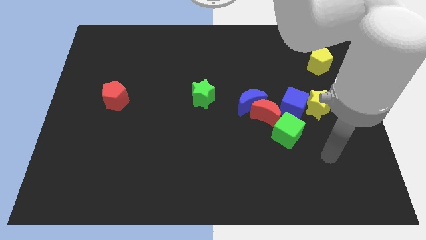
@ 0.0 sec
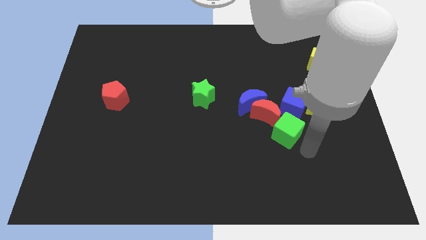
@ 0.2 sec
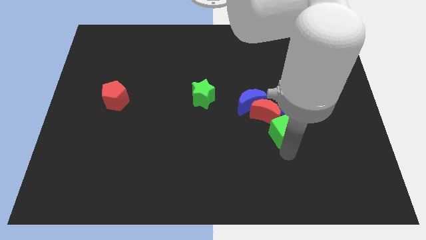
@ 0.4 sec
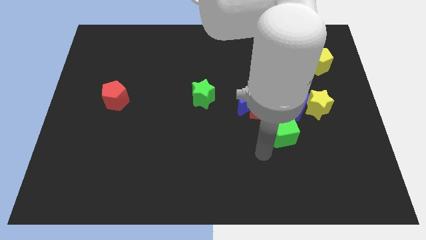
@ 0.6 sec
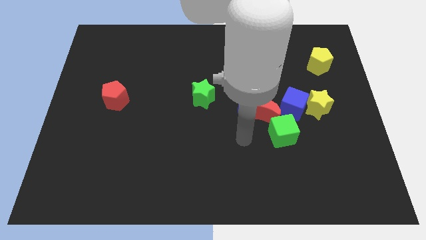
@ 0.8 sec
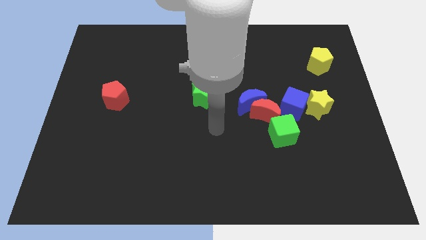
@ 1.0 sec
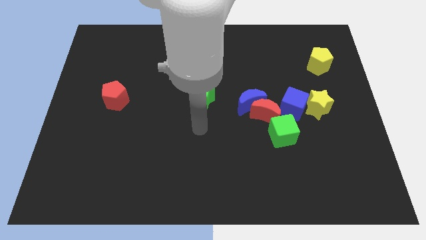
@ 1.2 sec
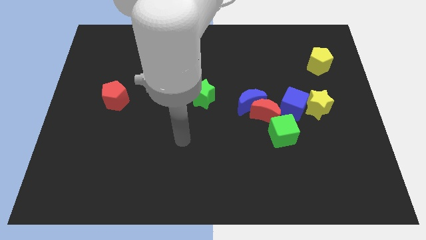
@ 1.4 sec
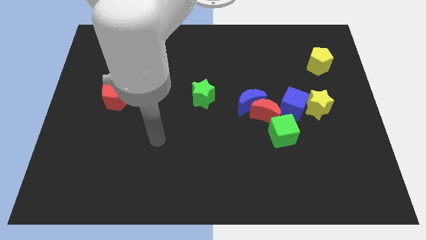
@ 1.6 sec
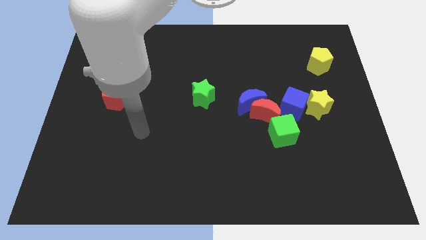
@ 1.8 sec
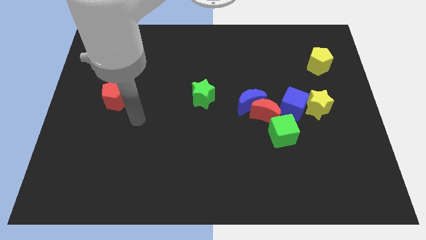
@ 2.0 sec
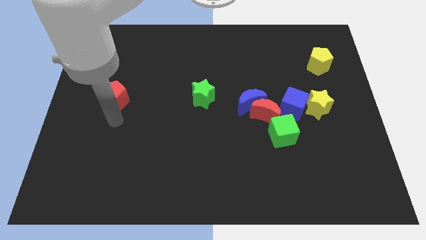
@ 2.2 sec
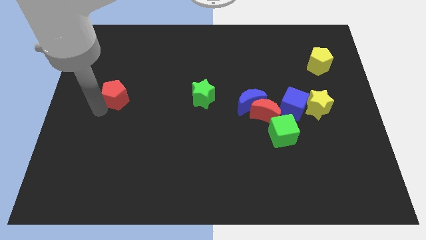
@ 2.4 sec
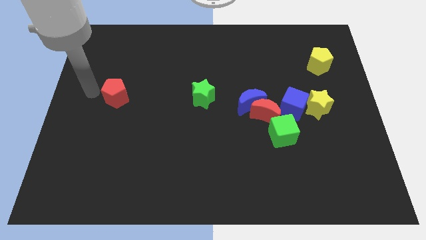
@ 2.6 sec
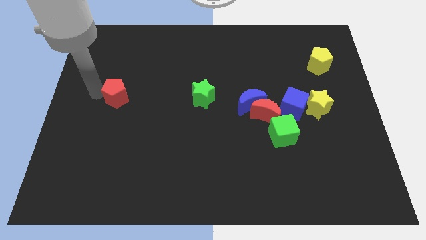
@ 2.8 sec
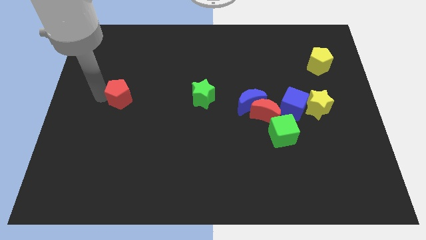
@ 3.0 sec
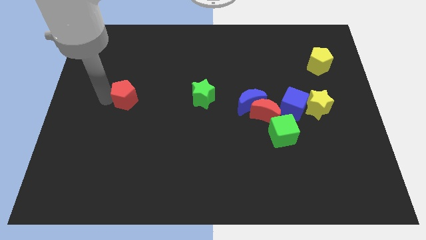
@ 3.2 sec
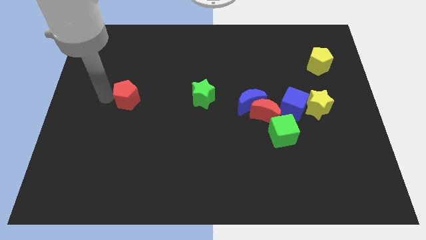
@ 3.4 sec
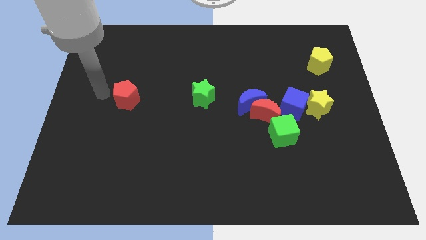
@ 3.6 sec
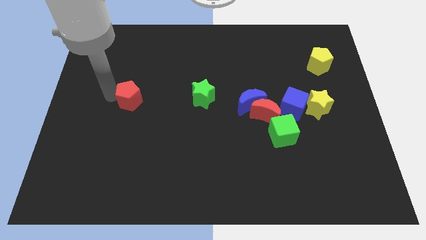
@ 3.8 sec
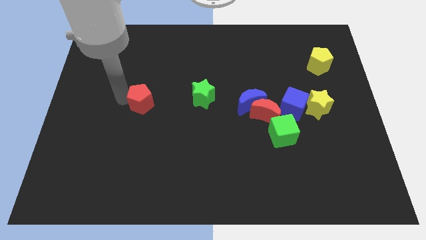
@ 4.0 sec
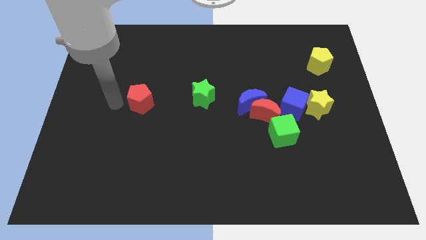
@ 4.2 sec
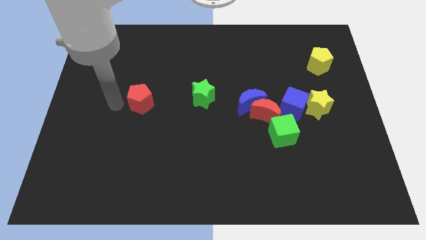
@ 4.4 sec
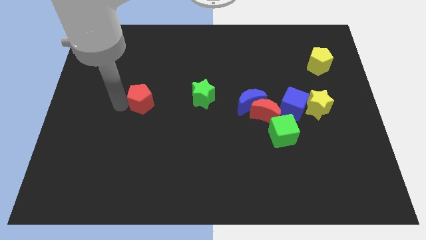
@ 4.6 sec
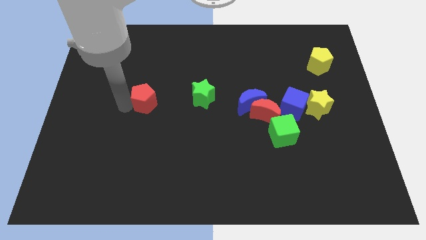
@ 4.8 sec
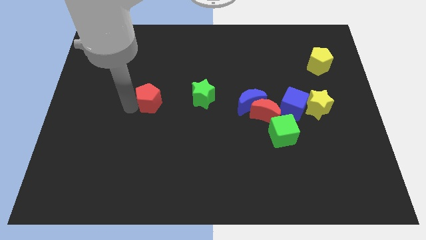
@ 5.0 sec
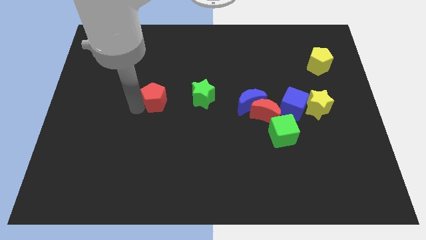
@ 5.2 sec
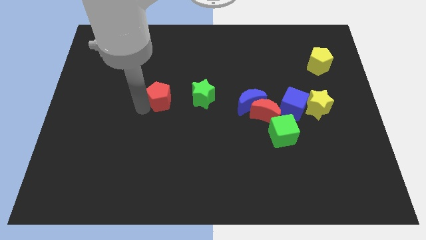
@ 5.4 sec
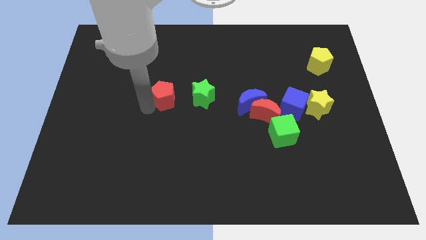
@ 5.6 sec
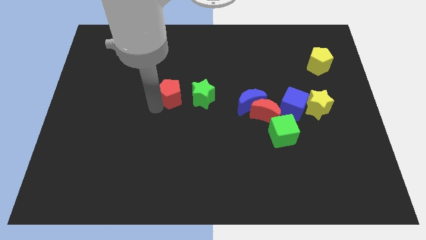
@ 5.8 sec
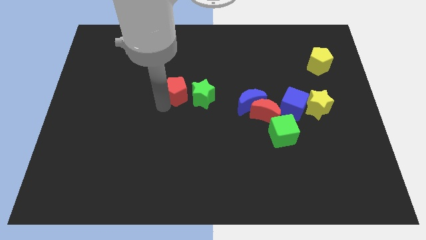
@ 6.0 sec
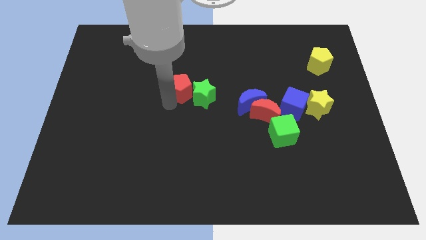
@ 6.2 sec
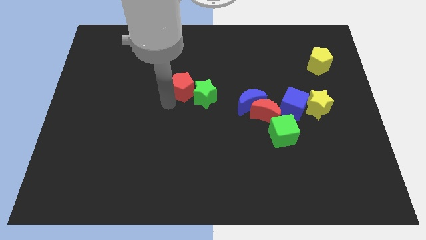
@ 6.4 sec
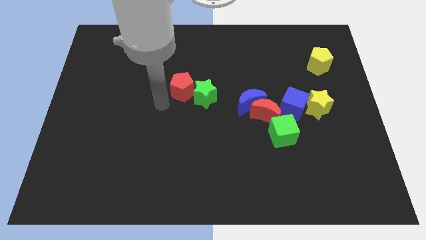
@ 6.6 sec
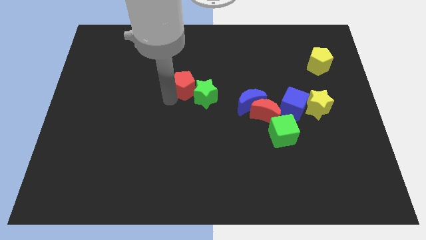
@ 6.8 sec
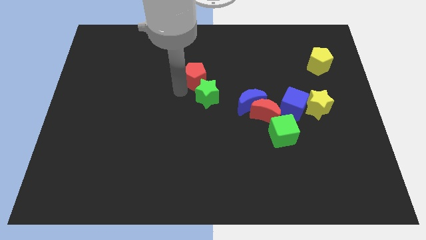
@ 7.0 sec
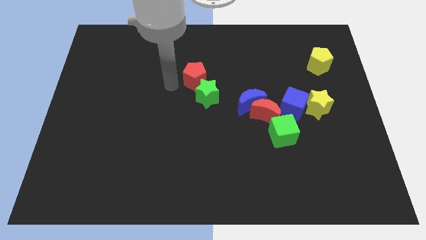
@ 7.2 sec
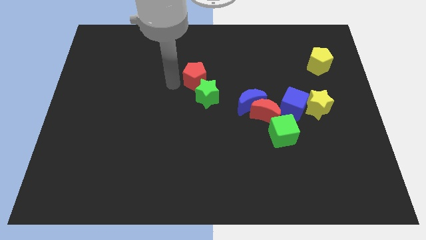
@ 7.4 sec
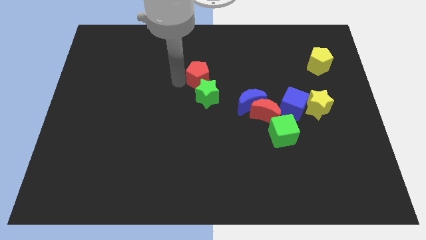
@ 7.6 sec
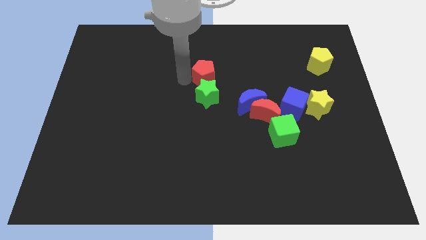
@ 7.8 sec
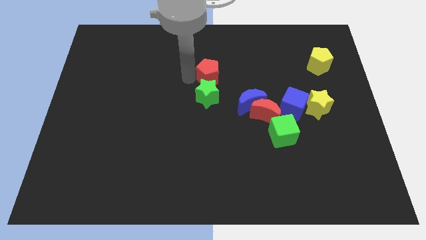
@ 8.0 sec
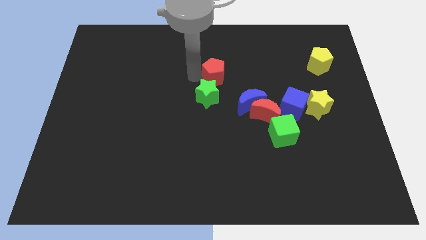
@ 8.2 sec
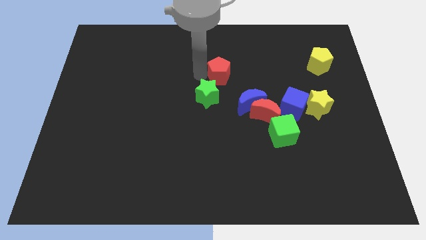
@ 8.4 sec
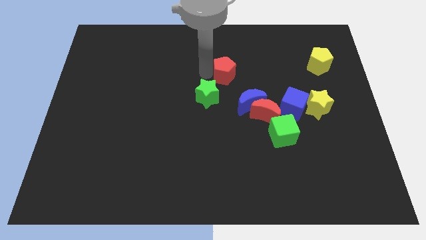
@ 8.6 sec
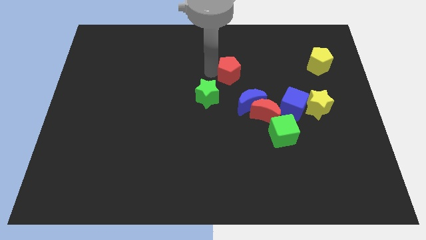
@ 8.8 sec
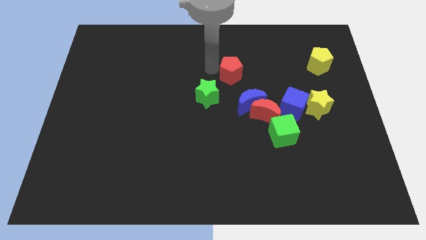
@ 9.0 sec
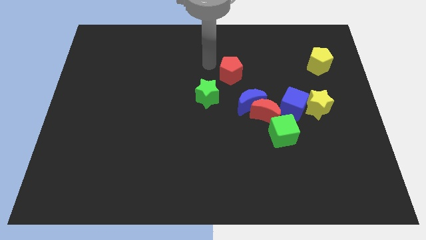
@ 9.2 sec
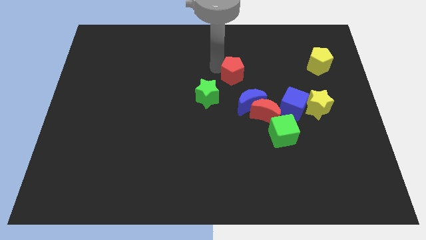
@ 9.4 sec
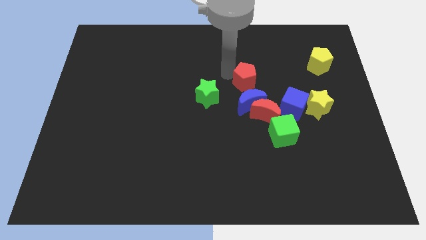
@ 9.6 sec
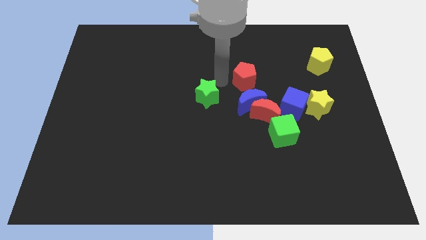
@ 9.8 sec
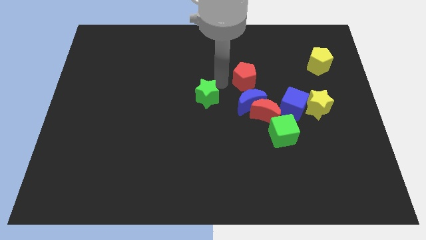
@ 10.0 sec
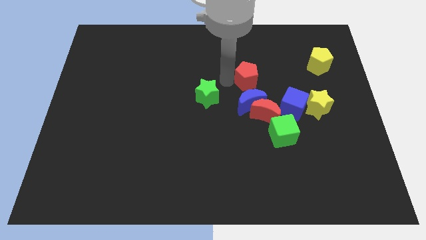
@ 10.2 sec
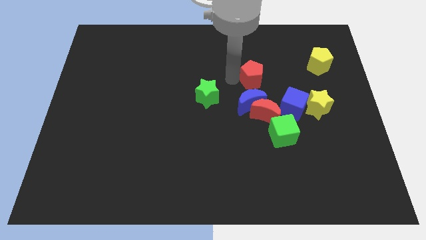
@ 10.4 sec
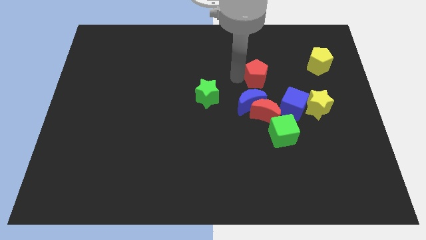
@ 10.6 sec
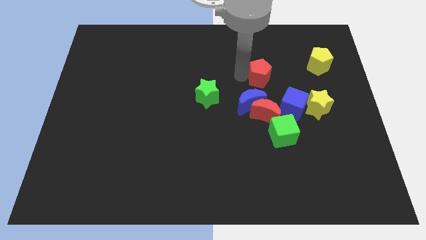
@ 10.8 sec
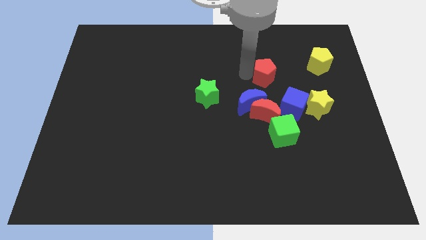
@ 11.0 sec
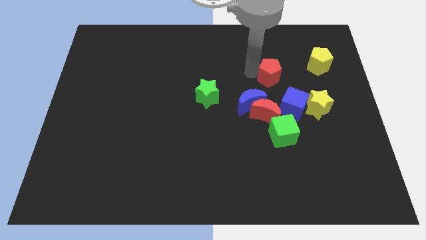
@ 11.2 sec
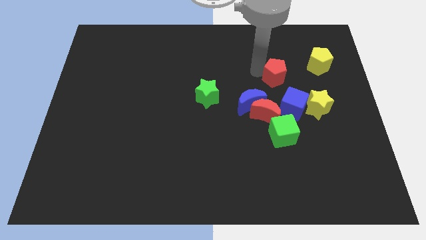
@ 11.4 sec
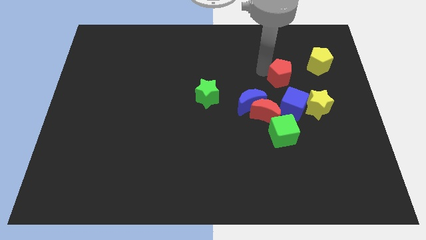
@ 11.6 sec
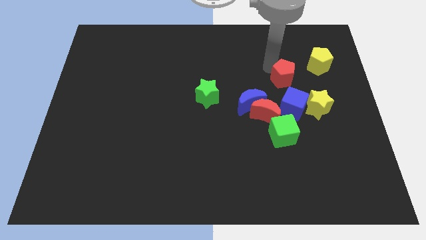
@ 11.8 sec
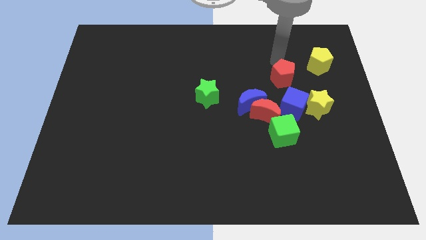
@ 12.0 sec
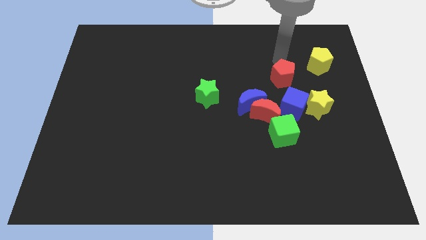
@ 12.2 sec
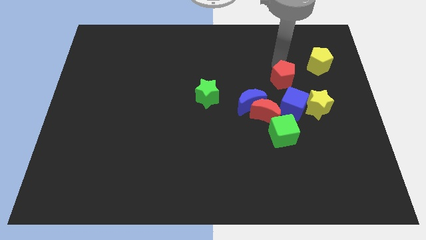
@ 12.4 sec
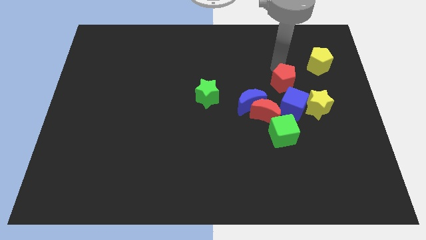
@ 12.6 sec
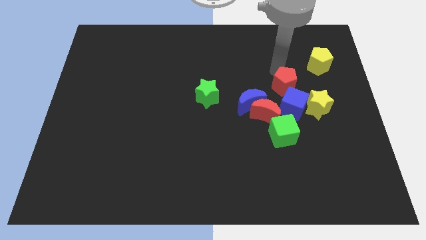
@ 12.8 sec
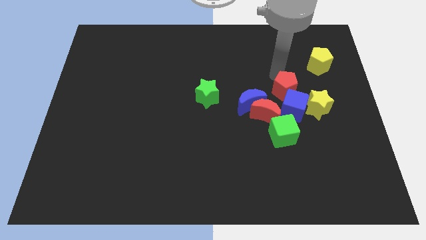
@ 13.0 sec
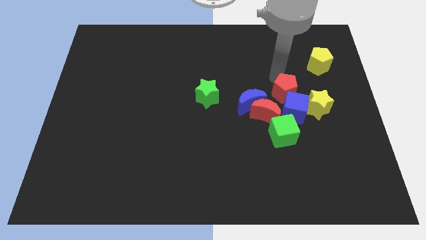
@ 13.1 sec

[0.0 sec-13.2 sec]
push the red pentagon next to the blue cube
